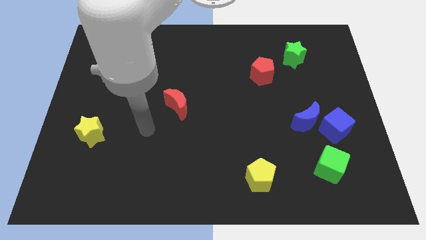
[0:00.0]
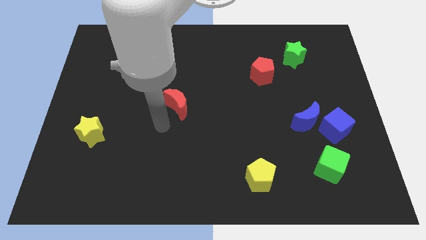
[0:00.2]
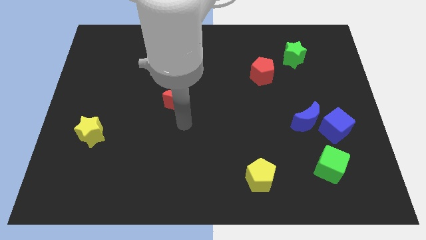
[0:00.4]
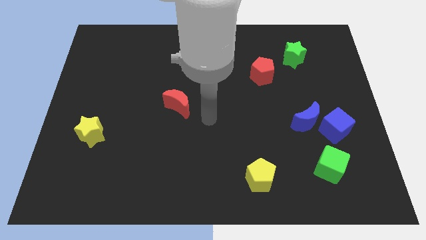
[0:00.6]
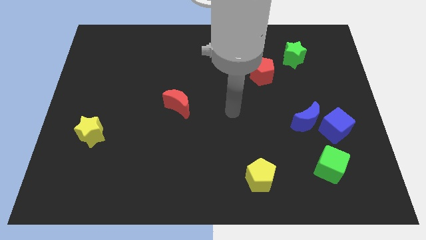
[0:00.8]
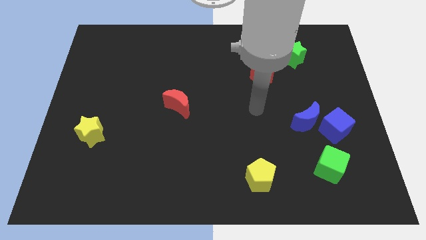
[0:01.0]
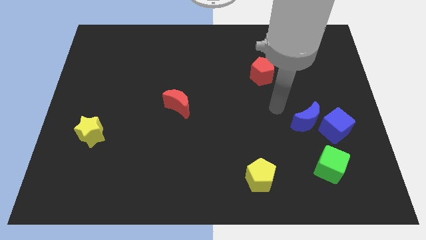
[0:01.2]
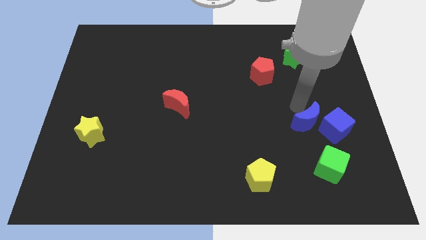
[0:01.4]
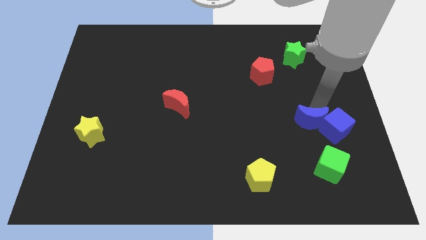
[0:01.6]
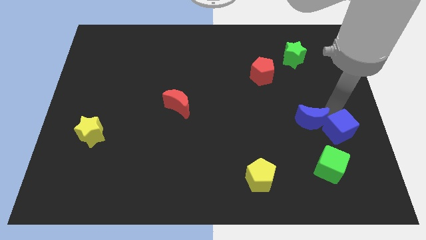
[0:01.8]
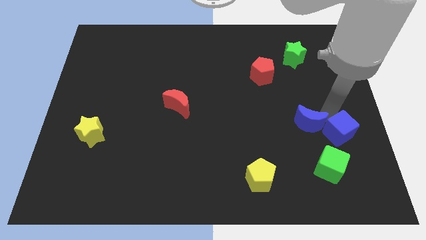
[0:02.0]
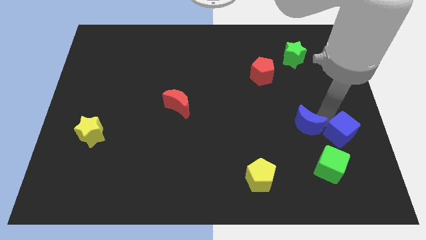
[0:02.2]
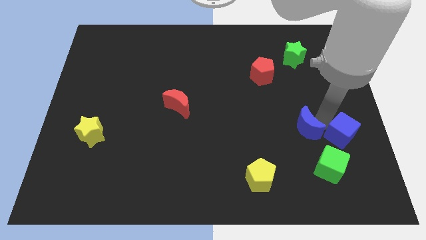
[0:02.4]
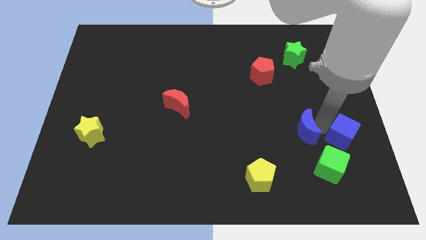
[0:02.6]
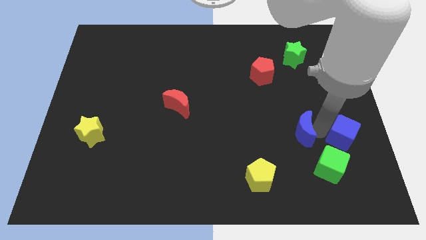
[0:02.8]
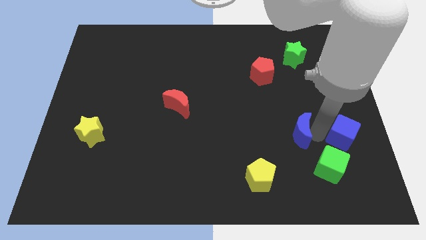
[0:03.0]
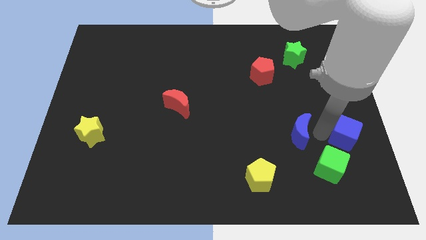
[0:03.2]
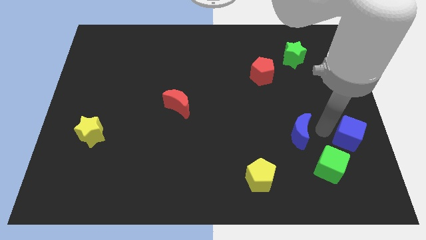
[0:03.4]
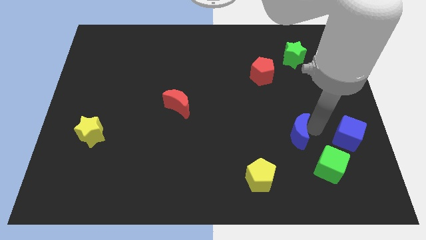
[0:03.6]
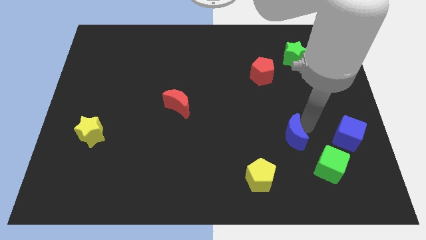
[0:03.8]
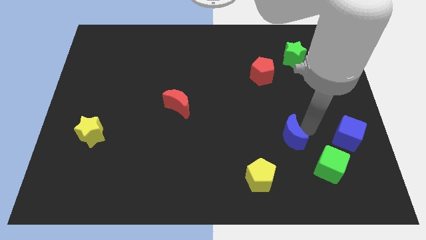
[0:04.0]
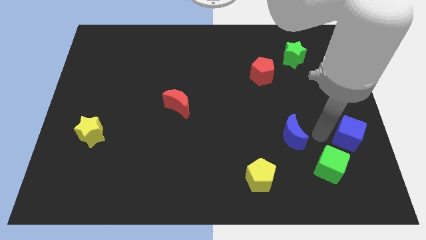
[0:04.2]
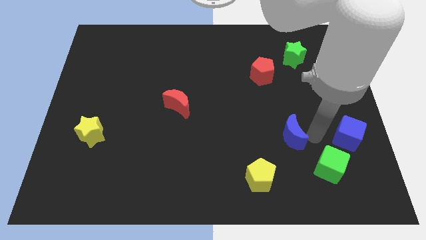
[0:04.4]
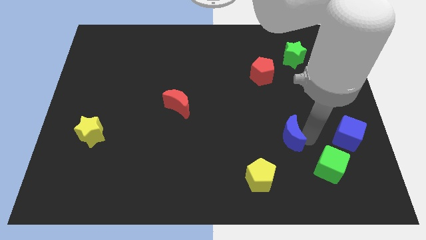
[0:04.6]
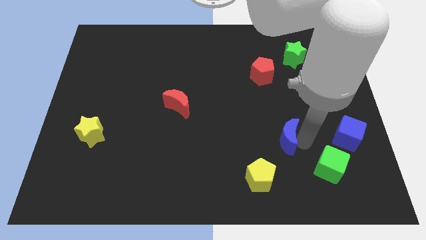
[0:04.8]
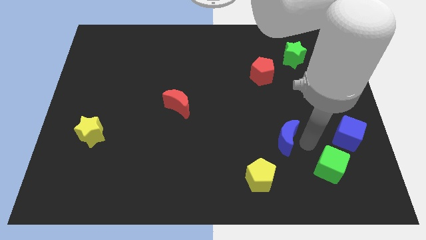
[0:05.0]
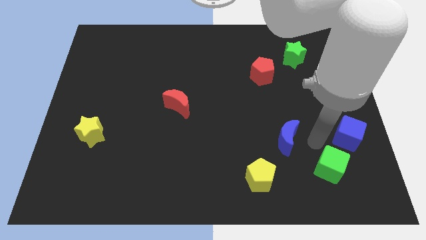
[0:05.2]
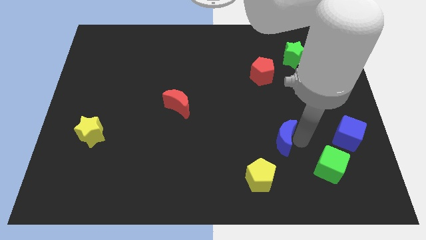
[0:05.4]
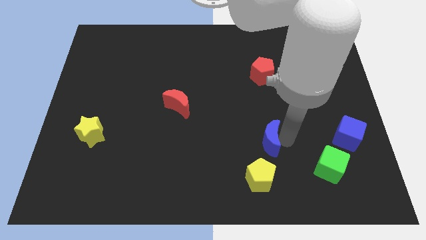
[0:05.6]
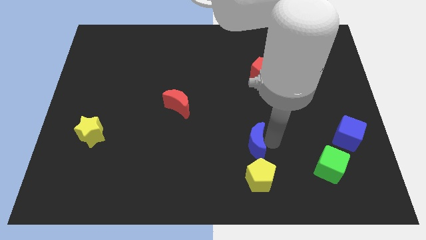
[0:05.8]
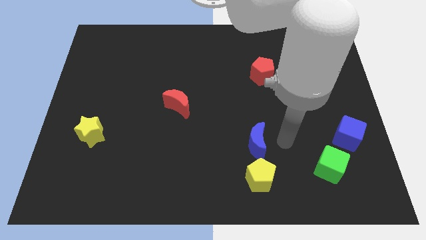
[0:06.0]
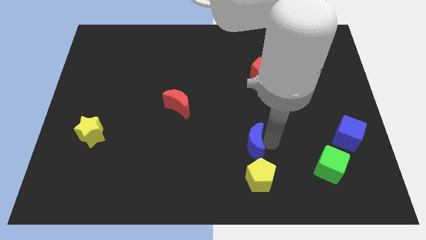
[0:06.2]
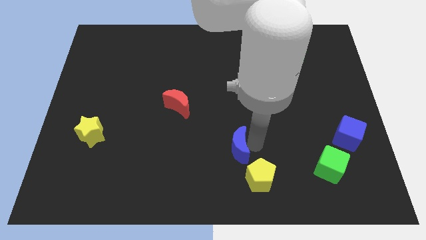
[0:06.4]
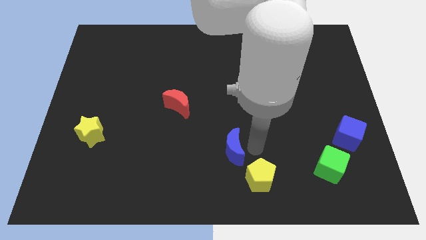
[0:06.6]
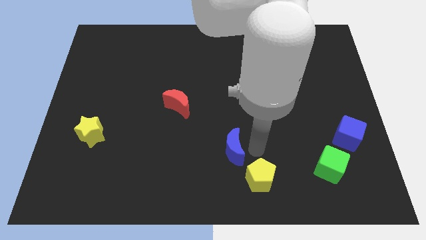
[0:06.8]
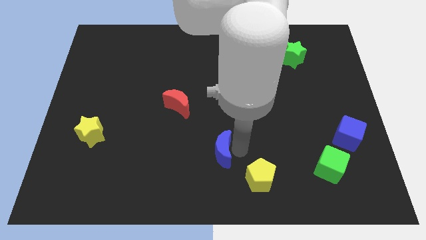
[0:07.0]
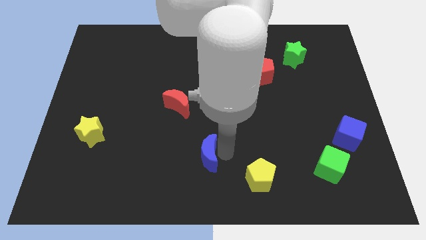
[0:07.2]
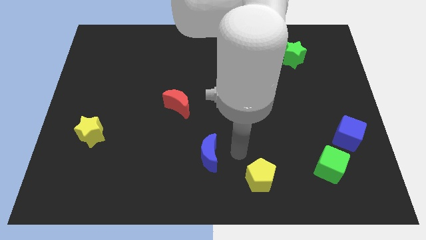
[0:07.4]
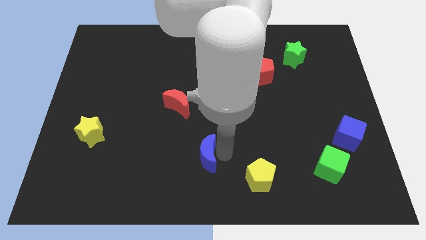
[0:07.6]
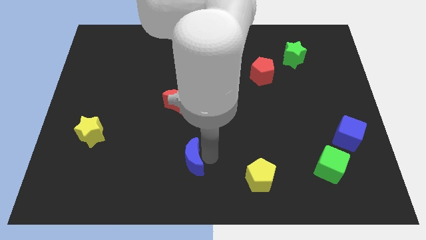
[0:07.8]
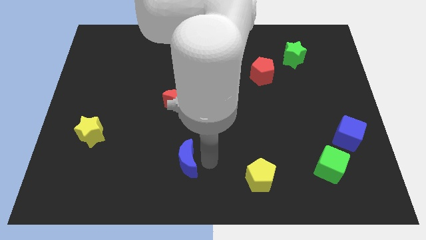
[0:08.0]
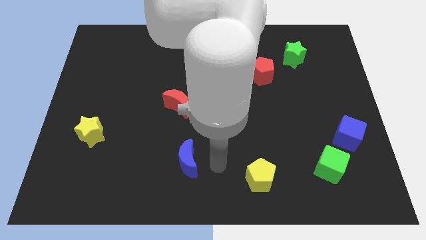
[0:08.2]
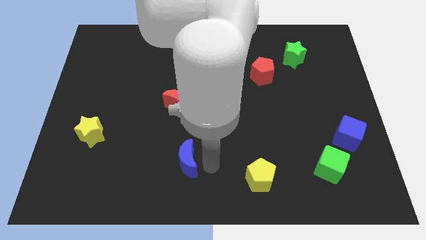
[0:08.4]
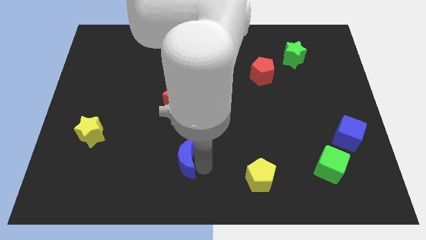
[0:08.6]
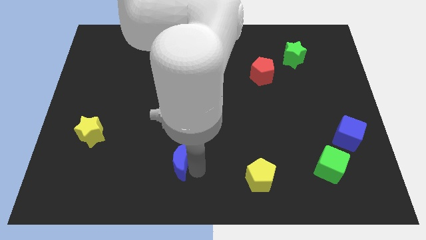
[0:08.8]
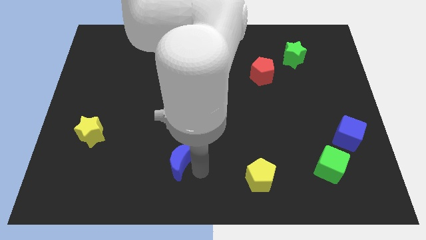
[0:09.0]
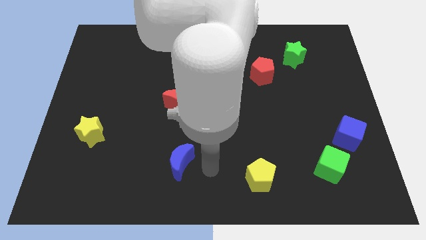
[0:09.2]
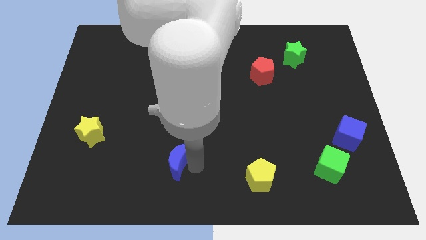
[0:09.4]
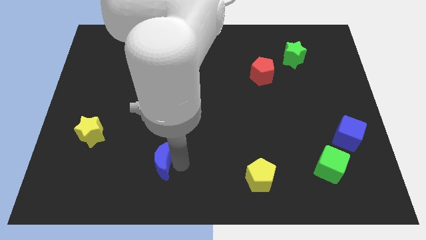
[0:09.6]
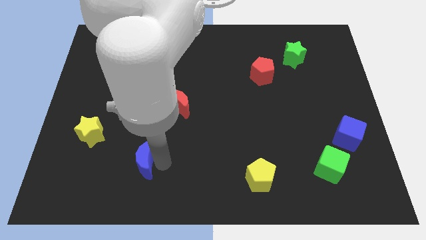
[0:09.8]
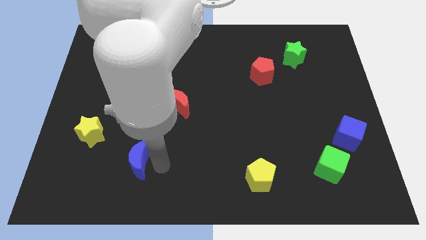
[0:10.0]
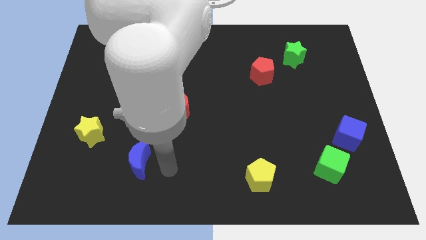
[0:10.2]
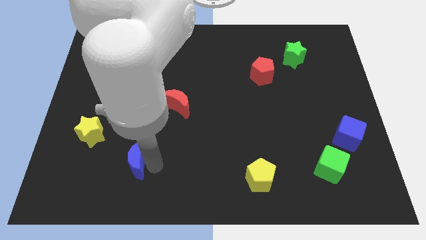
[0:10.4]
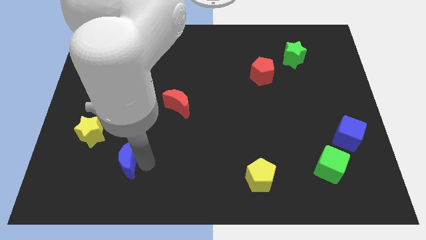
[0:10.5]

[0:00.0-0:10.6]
put the blue moon to the bottom right side of the yellow star

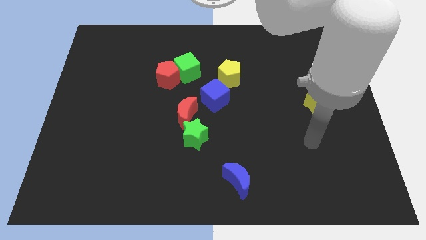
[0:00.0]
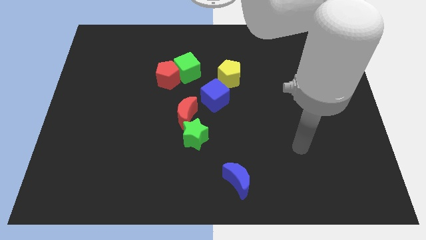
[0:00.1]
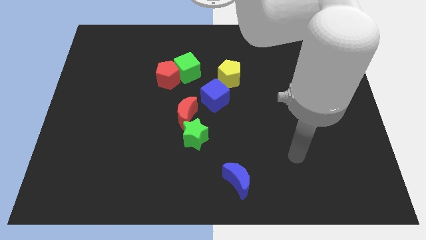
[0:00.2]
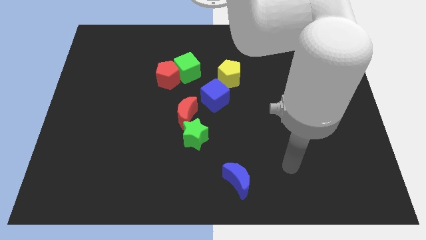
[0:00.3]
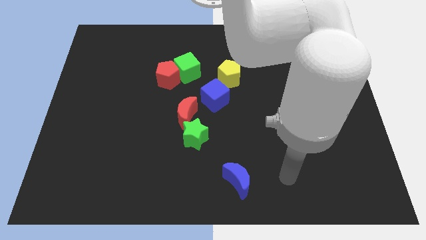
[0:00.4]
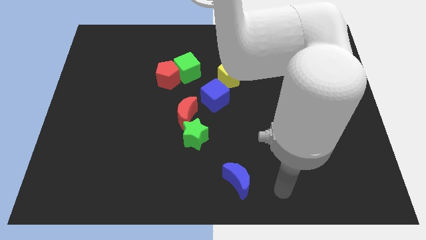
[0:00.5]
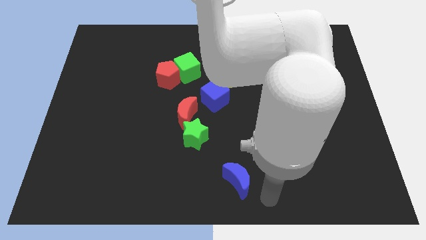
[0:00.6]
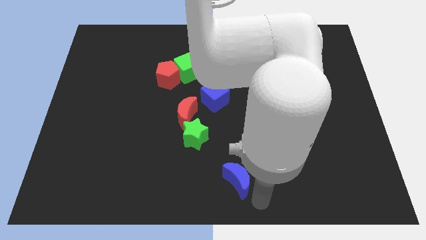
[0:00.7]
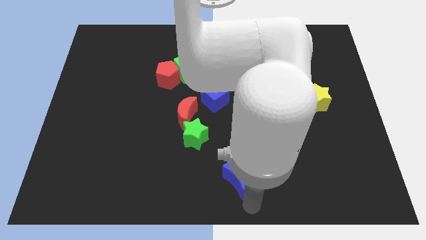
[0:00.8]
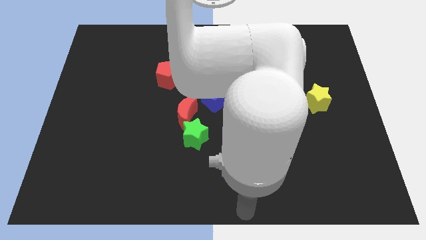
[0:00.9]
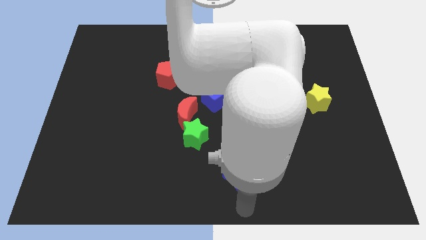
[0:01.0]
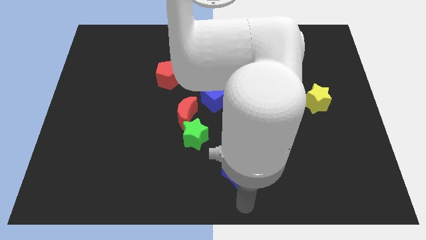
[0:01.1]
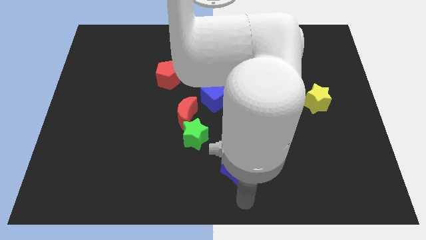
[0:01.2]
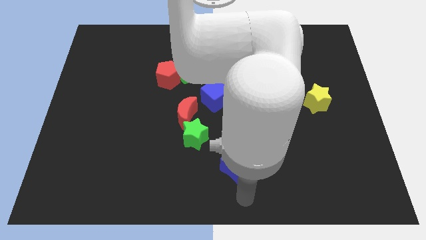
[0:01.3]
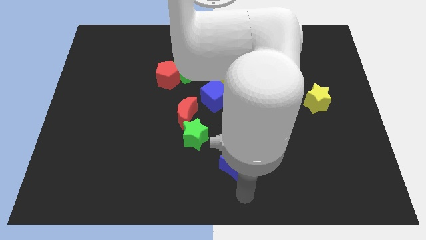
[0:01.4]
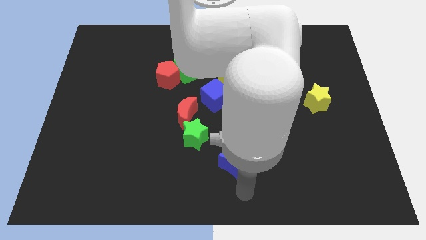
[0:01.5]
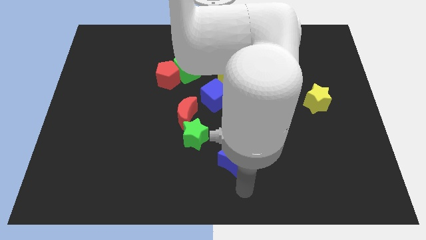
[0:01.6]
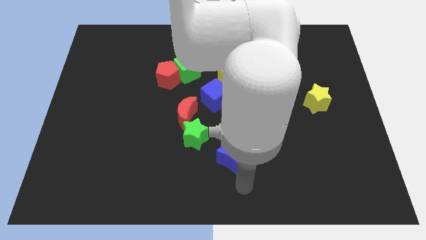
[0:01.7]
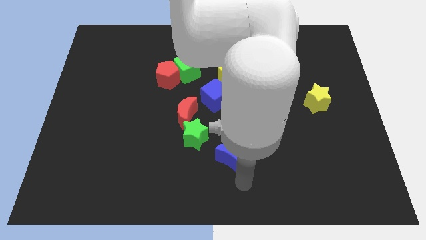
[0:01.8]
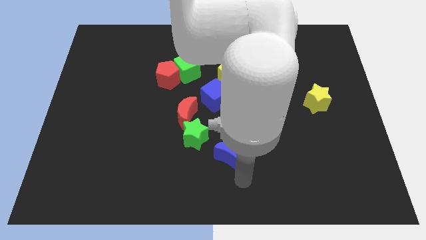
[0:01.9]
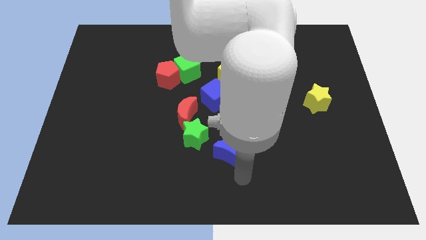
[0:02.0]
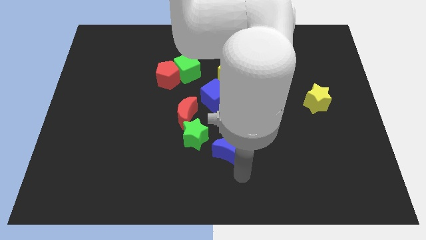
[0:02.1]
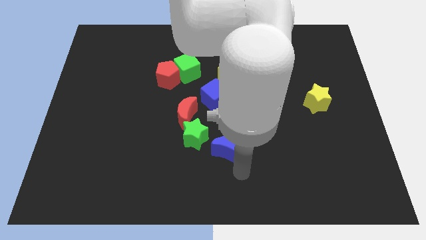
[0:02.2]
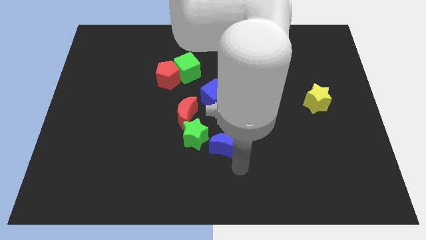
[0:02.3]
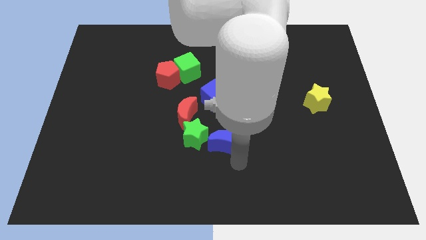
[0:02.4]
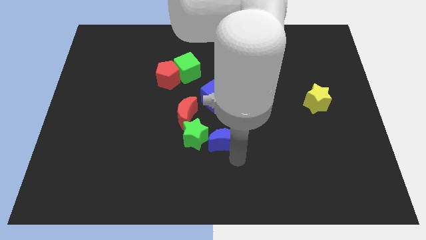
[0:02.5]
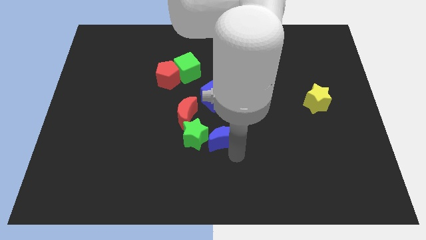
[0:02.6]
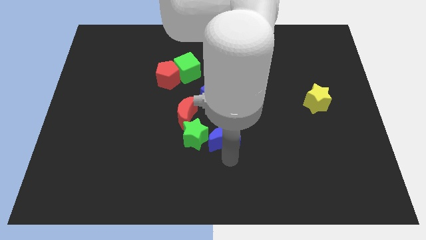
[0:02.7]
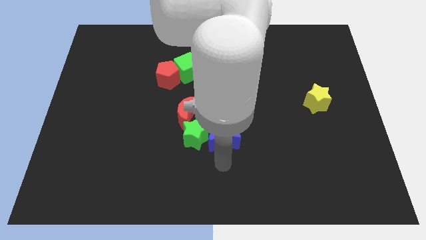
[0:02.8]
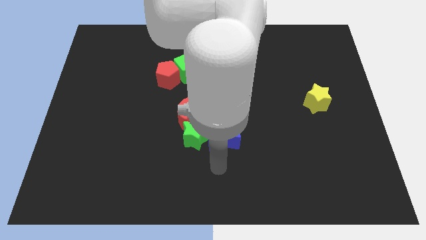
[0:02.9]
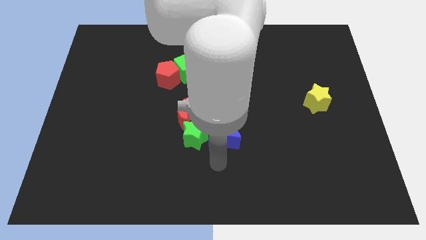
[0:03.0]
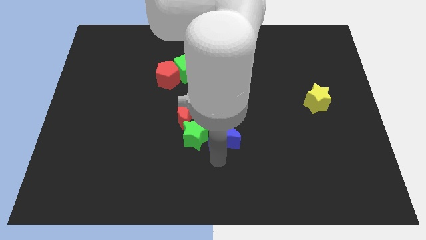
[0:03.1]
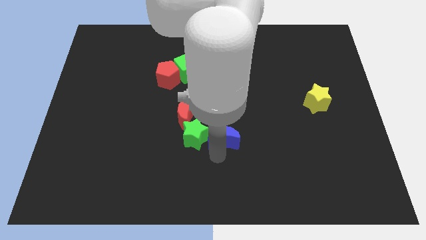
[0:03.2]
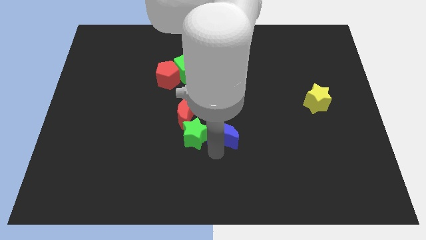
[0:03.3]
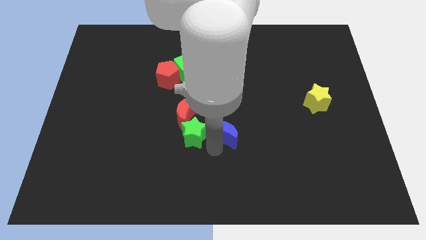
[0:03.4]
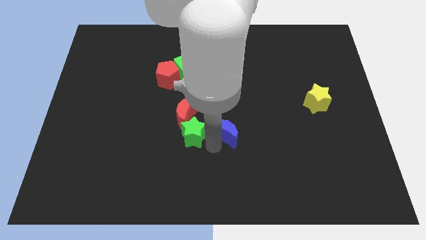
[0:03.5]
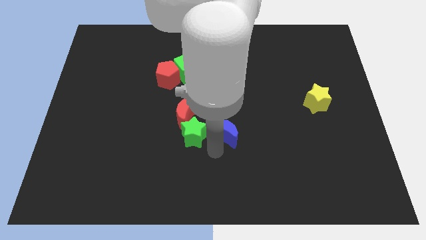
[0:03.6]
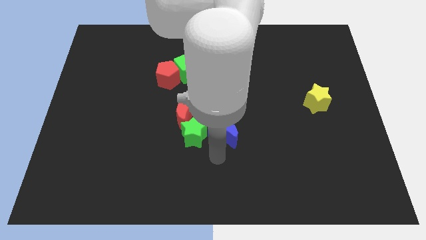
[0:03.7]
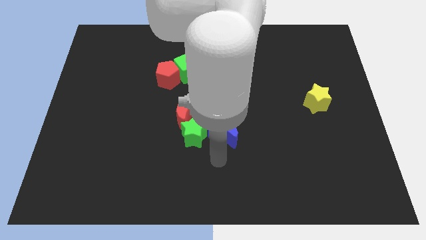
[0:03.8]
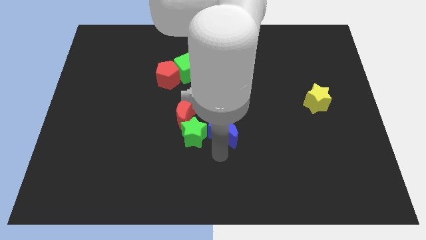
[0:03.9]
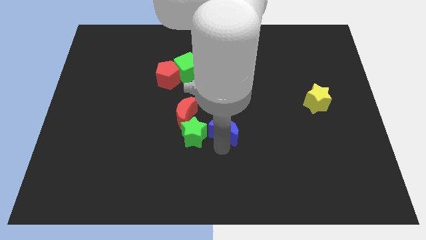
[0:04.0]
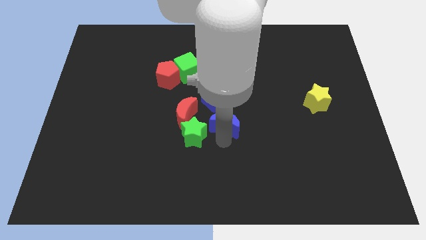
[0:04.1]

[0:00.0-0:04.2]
move the blue moon to the bottom side of the yellow pentagon
